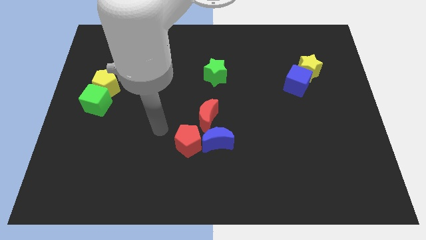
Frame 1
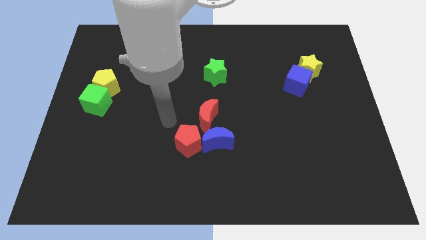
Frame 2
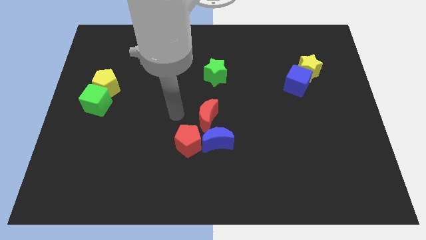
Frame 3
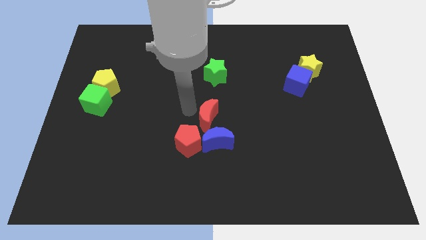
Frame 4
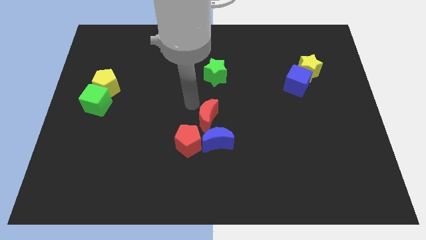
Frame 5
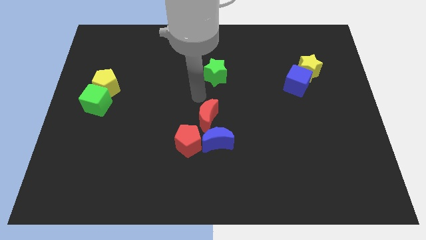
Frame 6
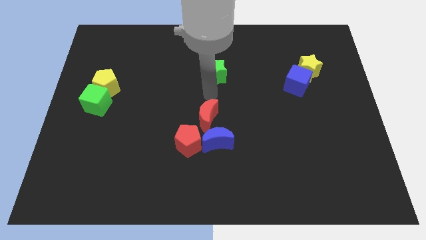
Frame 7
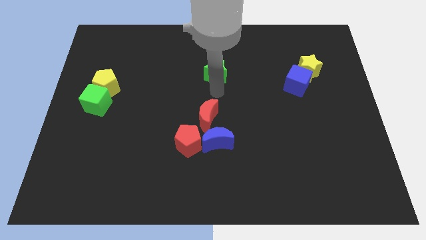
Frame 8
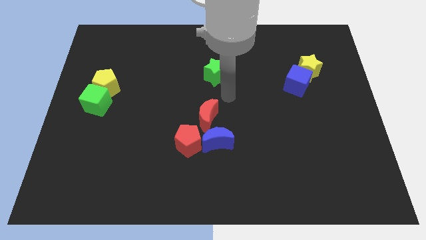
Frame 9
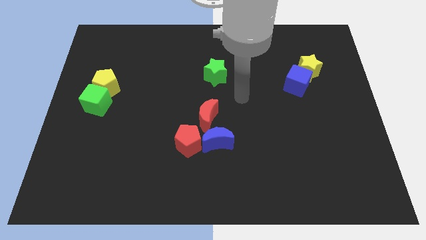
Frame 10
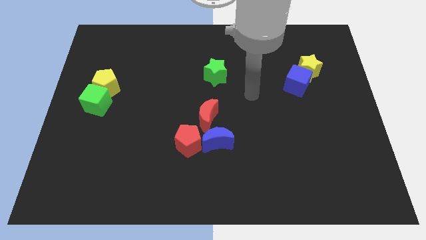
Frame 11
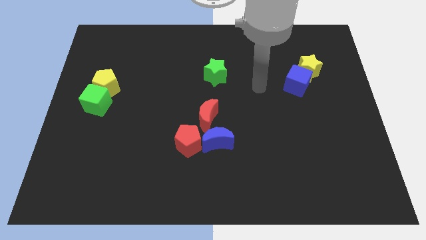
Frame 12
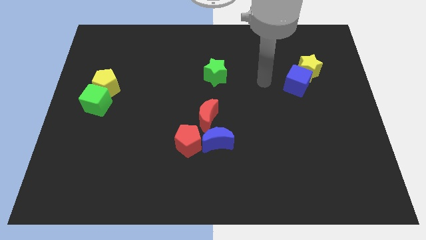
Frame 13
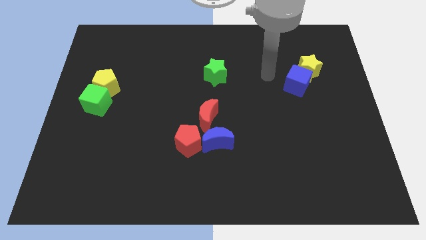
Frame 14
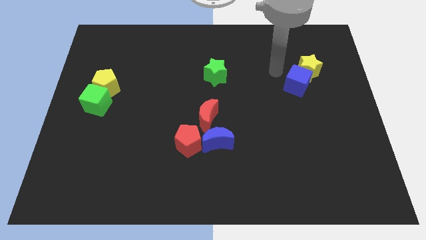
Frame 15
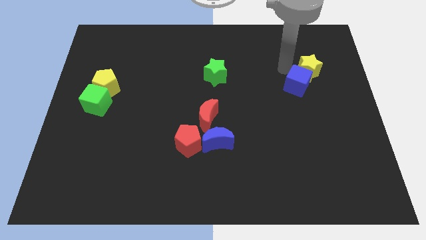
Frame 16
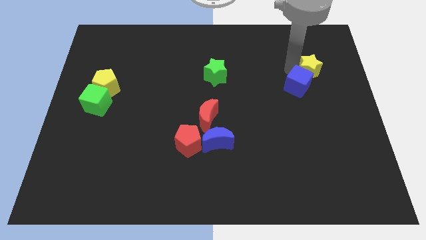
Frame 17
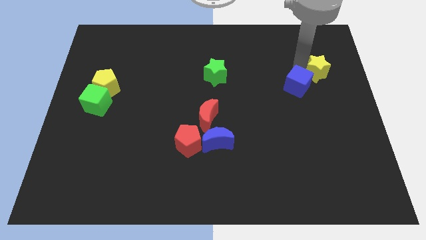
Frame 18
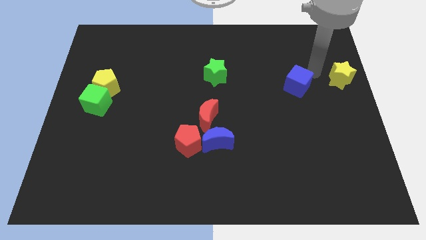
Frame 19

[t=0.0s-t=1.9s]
move the blue cube away from the yellow star

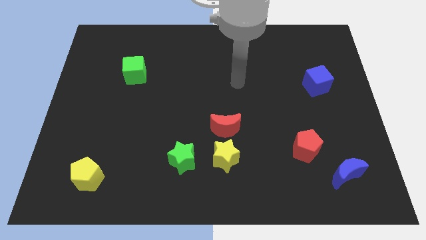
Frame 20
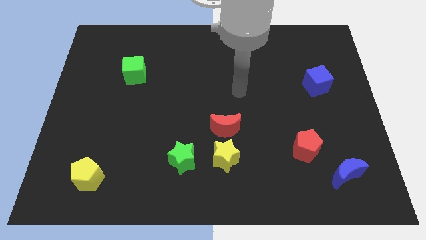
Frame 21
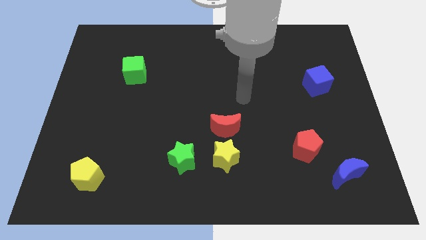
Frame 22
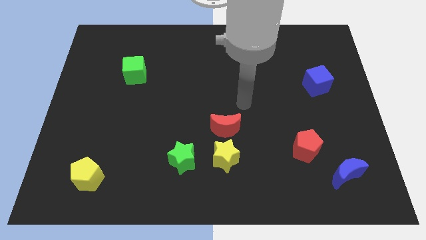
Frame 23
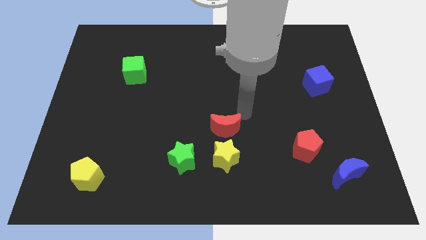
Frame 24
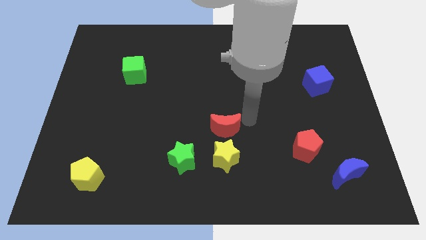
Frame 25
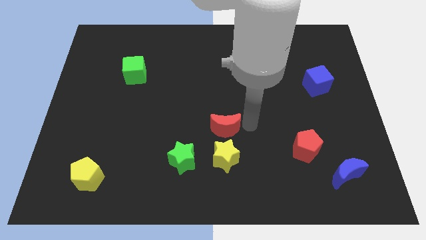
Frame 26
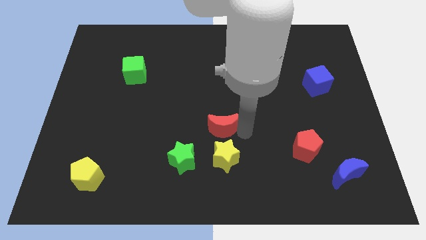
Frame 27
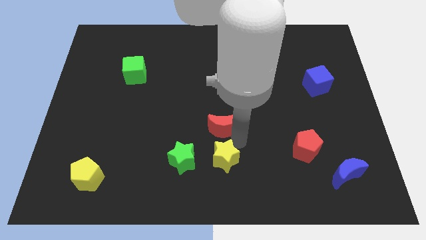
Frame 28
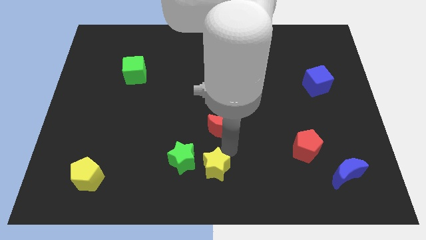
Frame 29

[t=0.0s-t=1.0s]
separate the red moon from the yellow star

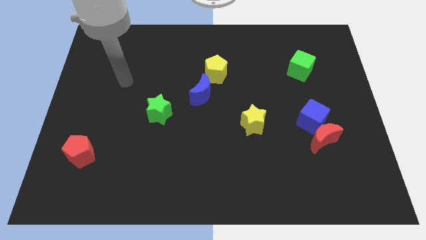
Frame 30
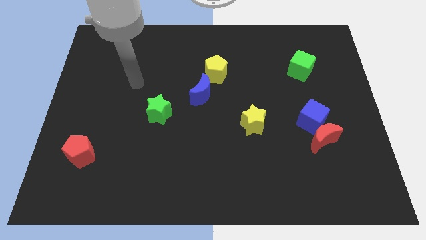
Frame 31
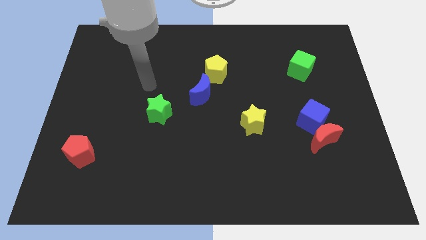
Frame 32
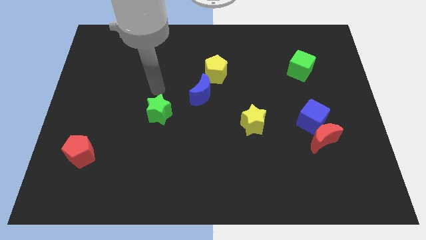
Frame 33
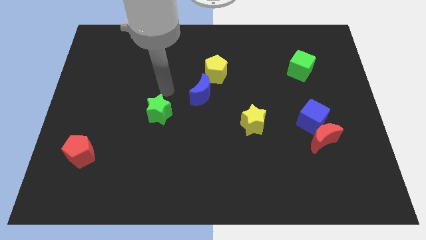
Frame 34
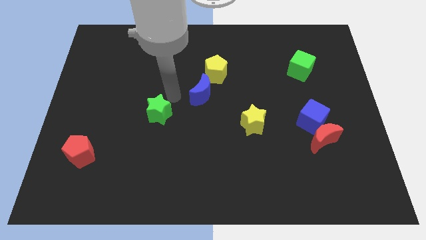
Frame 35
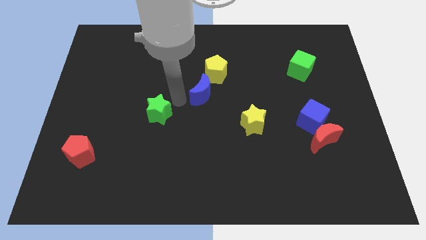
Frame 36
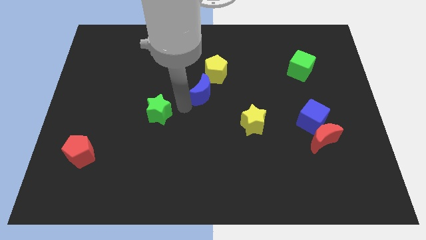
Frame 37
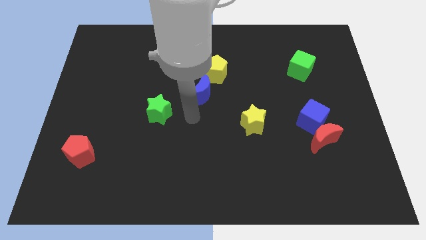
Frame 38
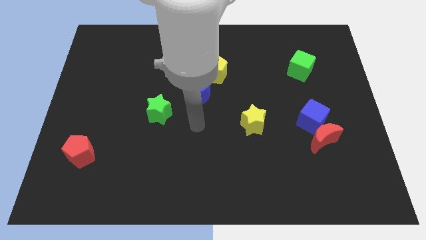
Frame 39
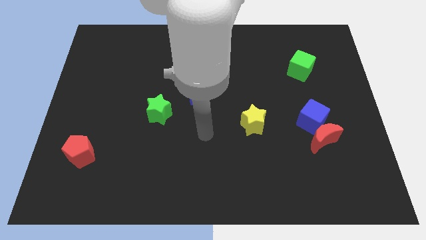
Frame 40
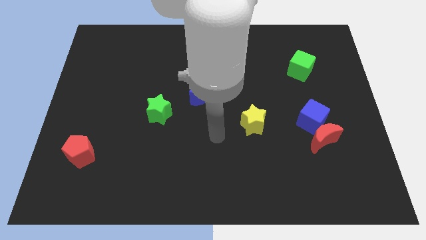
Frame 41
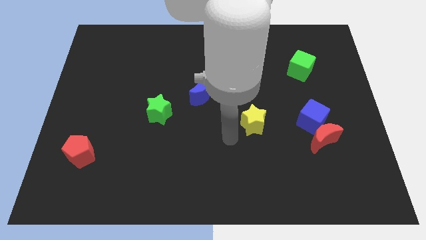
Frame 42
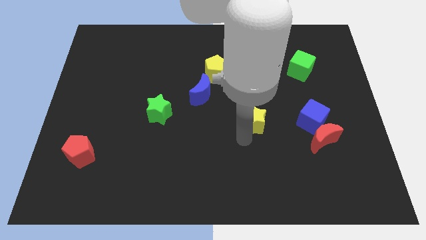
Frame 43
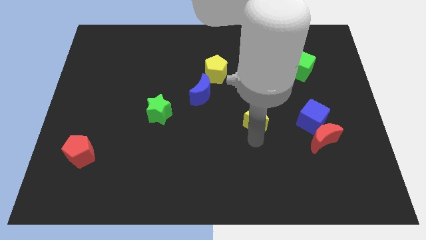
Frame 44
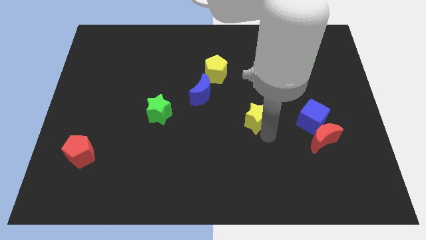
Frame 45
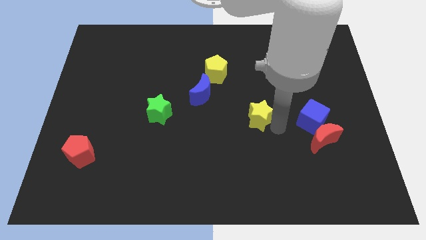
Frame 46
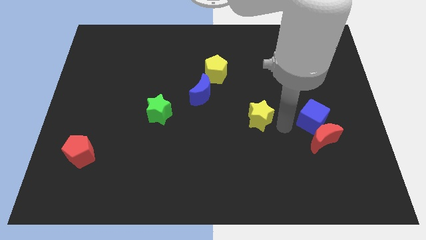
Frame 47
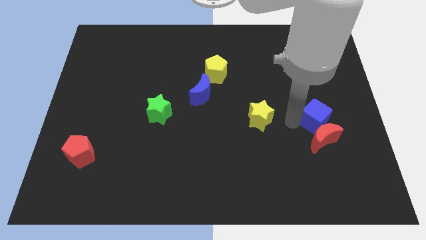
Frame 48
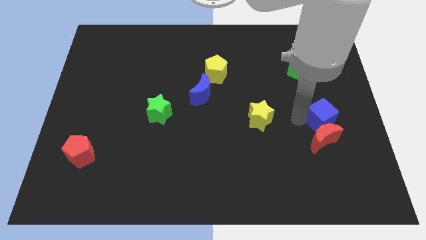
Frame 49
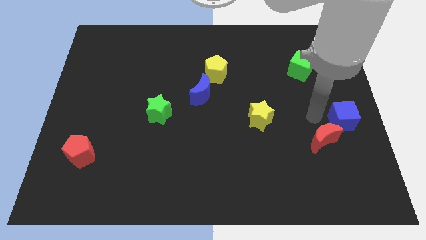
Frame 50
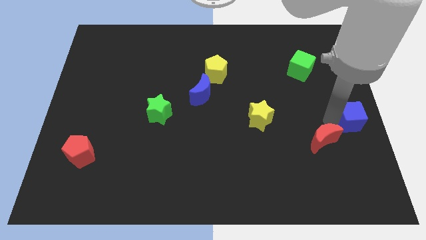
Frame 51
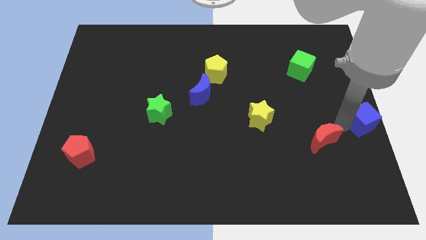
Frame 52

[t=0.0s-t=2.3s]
pull the red moon apart from the blue cube

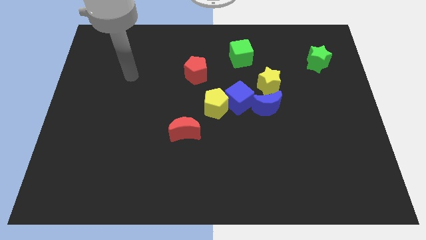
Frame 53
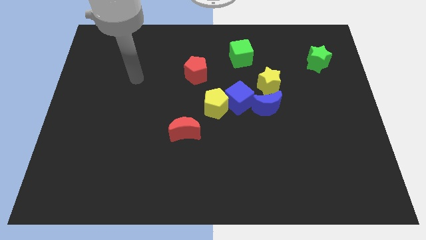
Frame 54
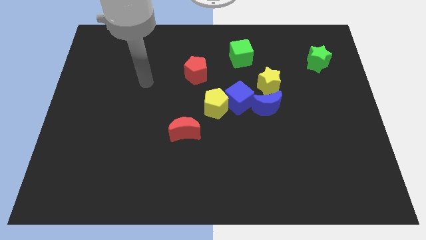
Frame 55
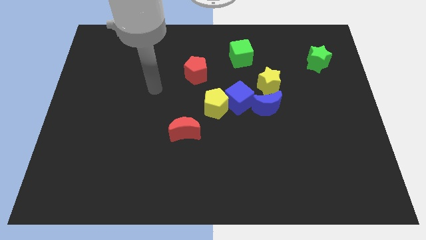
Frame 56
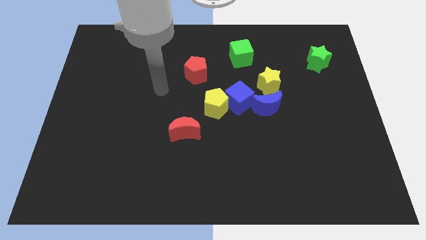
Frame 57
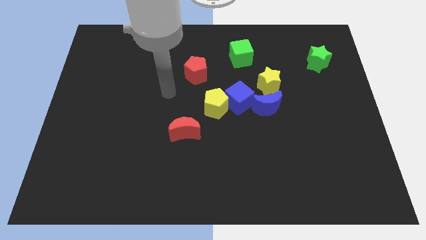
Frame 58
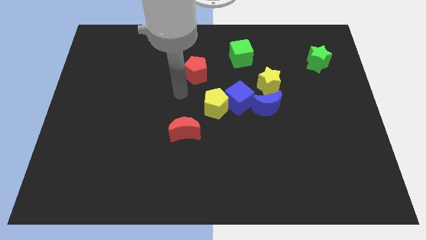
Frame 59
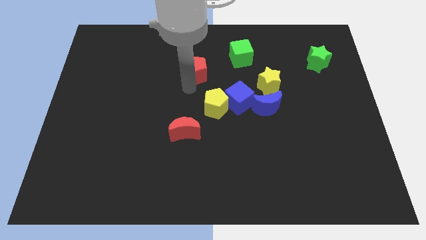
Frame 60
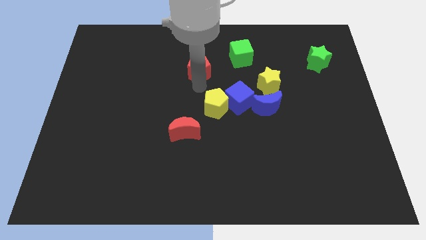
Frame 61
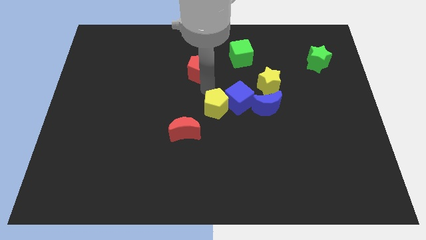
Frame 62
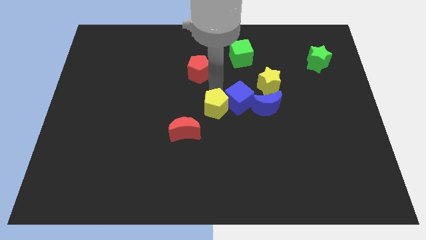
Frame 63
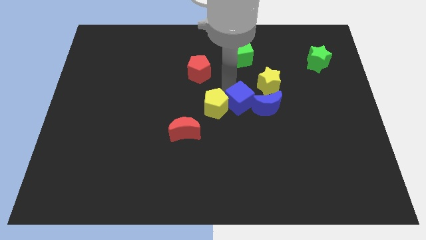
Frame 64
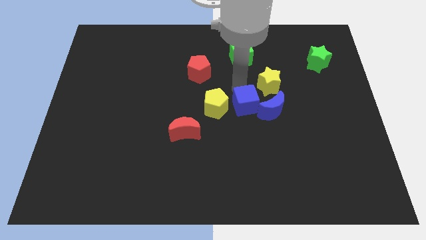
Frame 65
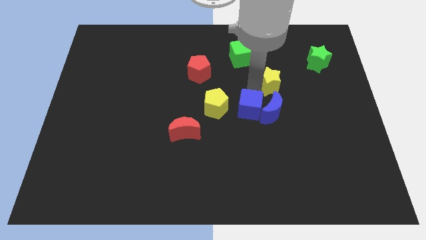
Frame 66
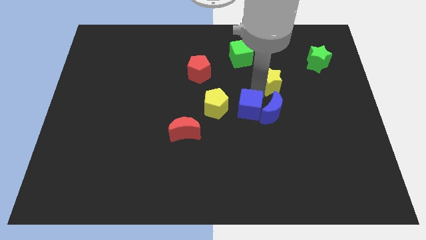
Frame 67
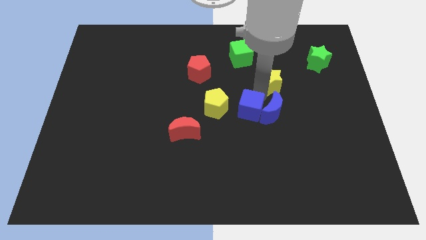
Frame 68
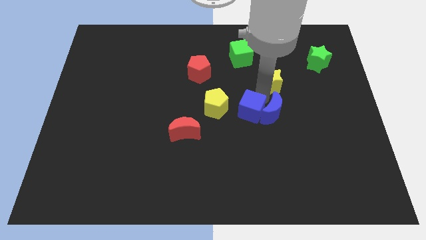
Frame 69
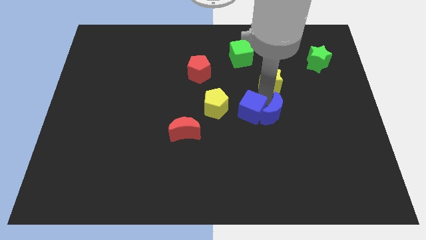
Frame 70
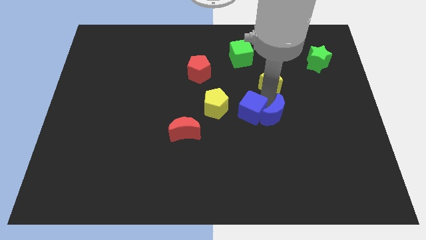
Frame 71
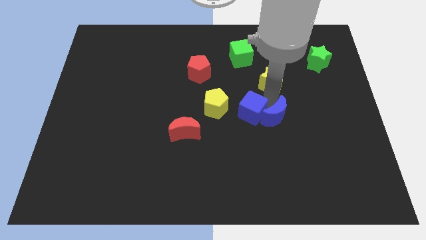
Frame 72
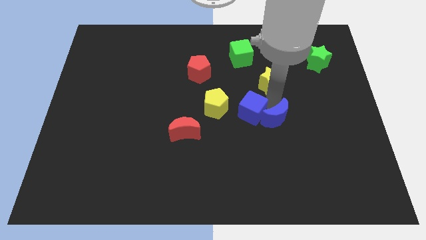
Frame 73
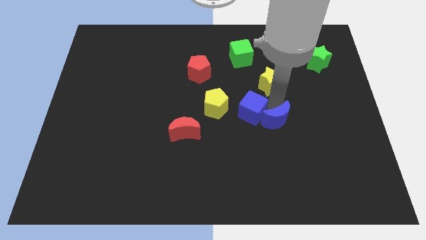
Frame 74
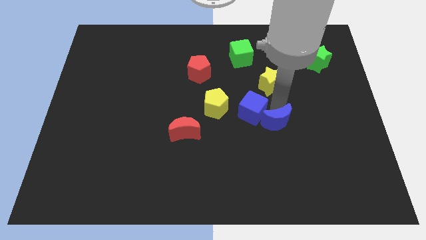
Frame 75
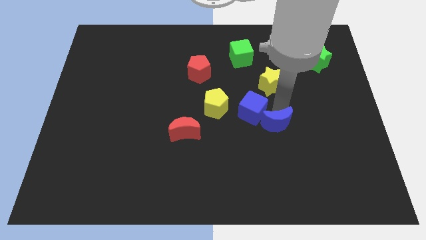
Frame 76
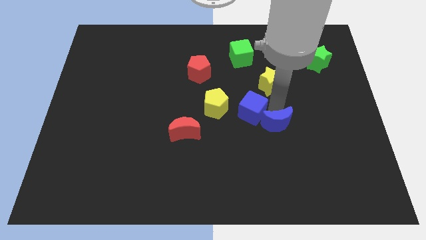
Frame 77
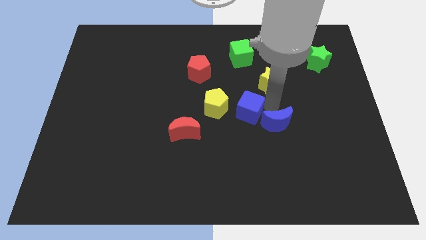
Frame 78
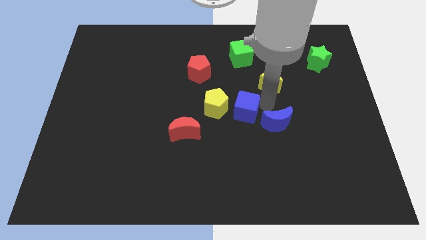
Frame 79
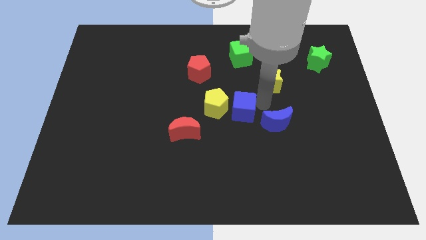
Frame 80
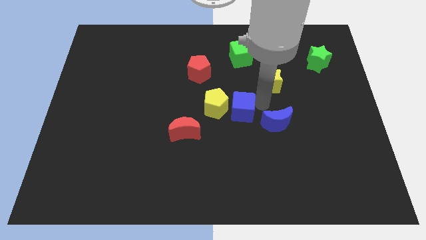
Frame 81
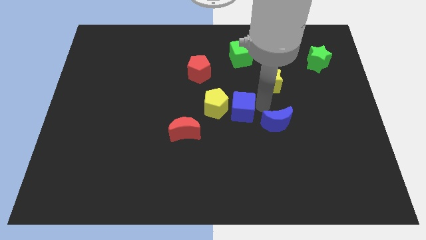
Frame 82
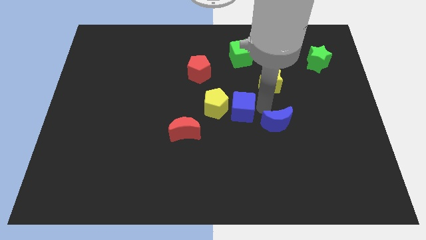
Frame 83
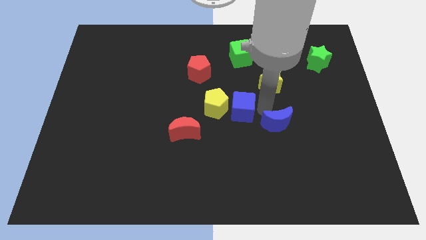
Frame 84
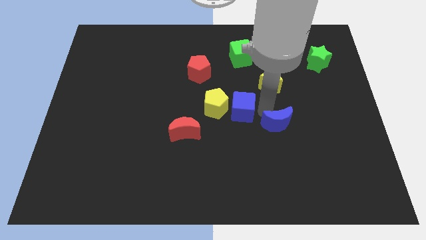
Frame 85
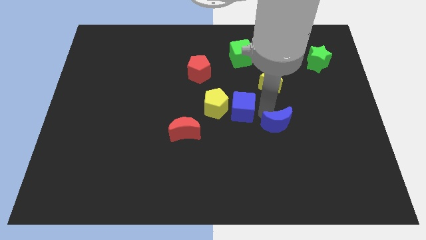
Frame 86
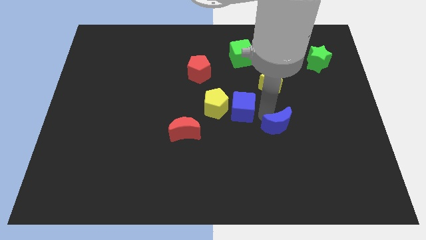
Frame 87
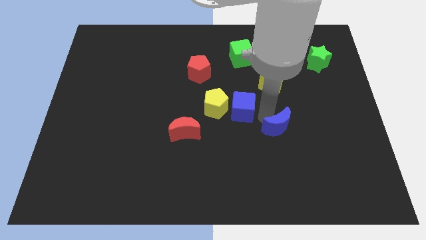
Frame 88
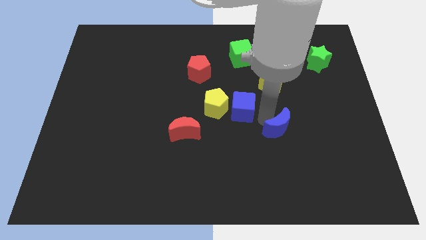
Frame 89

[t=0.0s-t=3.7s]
pull the blue moon apart from the blue cube and yellow star

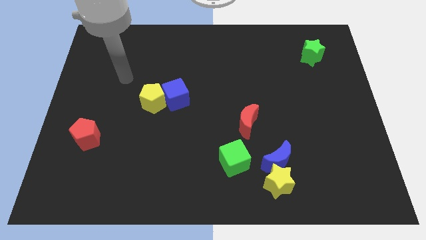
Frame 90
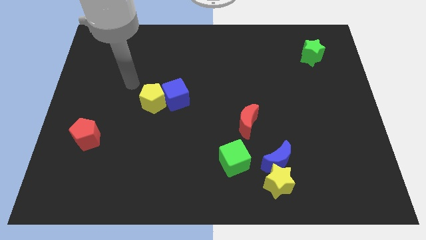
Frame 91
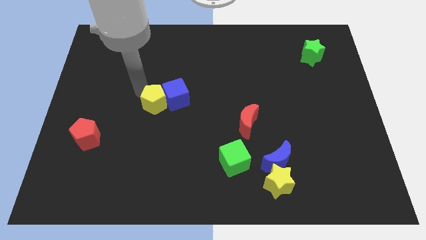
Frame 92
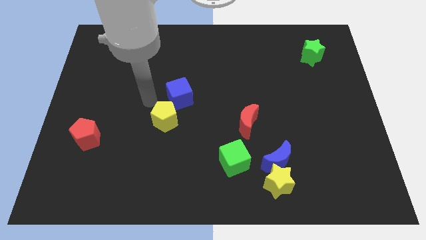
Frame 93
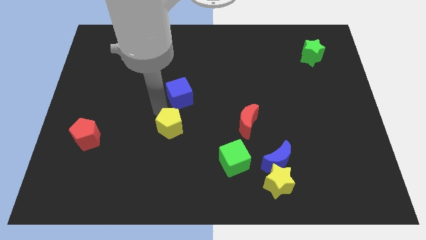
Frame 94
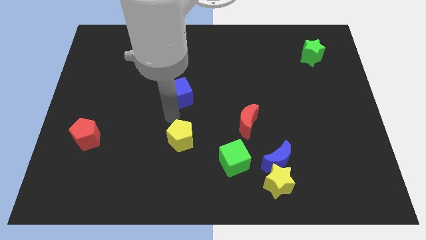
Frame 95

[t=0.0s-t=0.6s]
move the blue cube away from the yellow pentagon
